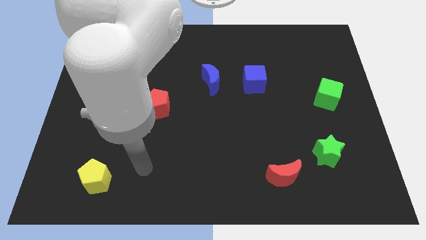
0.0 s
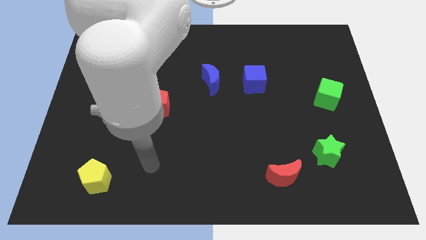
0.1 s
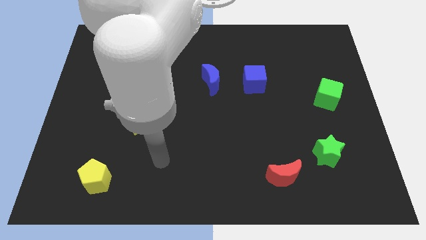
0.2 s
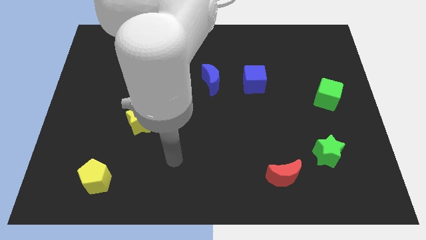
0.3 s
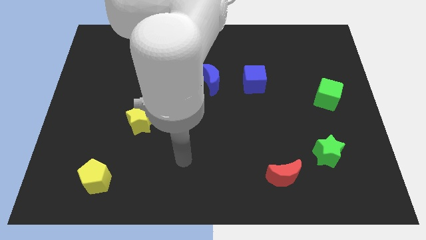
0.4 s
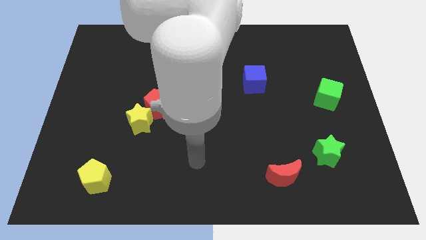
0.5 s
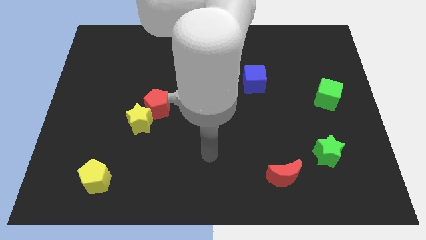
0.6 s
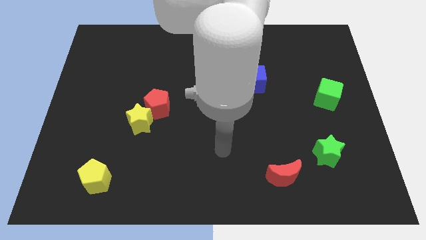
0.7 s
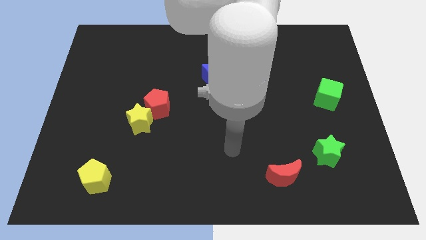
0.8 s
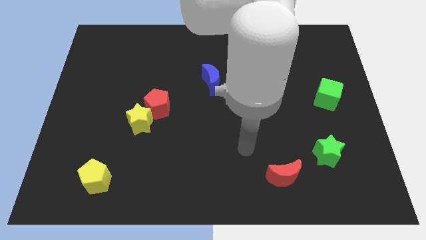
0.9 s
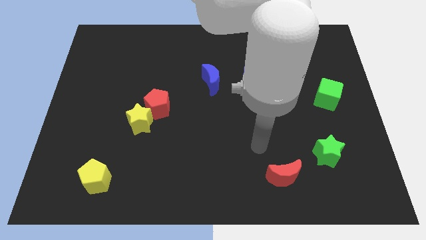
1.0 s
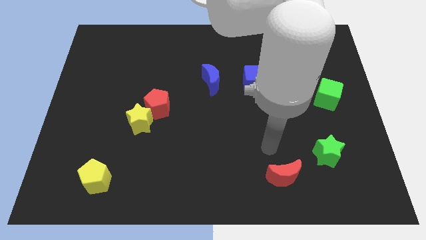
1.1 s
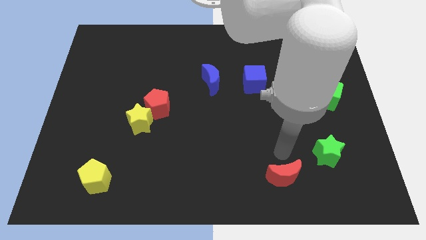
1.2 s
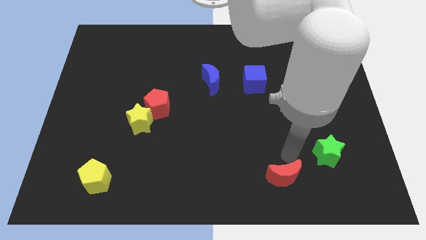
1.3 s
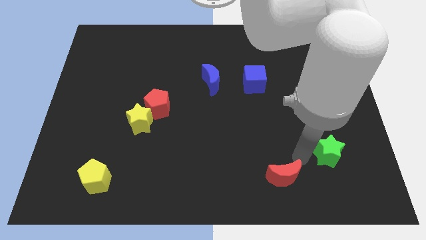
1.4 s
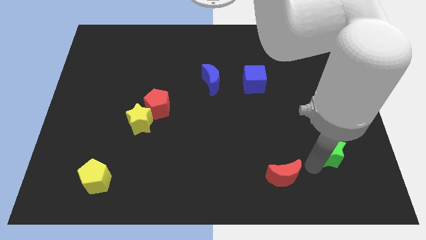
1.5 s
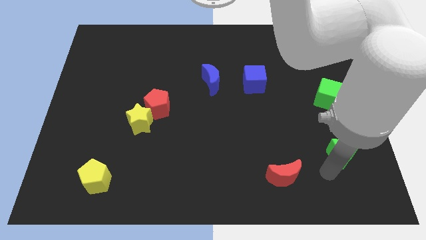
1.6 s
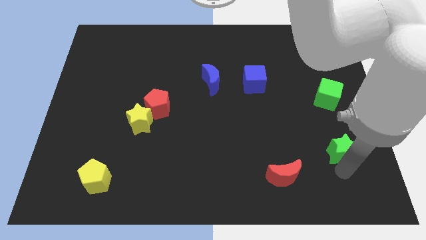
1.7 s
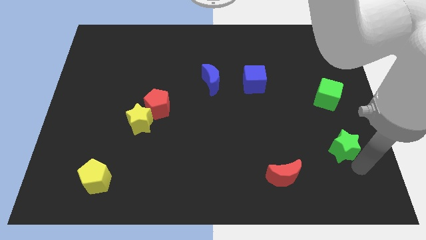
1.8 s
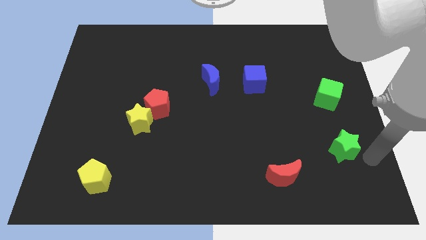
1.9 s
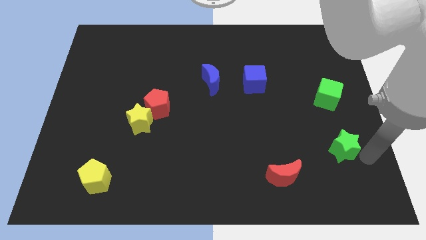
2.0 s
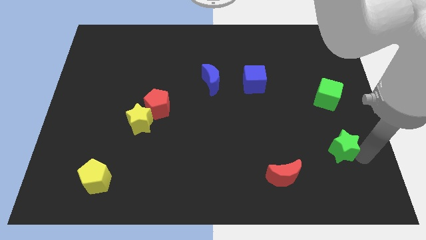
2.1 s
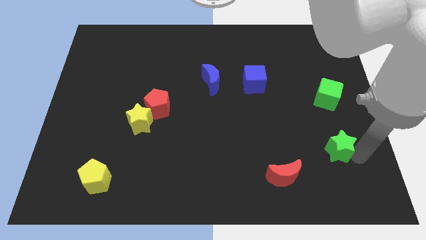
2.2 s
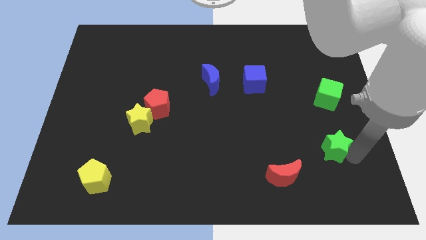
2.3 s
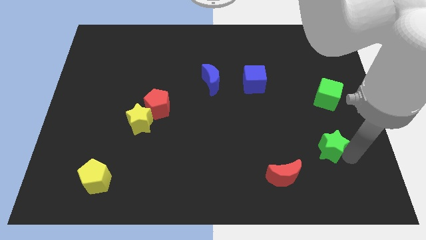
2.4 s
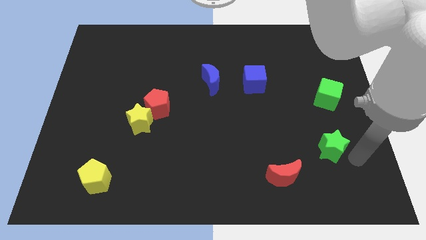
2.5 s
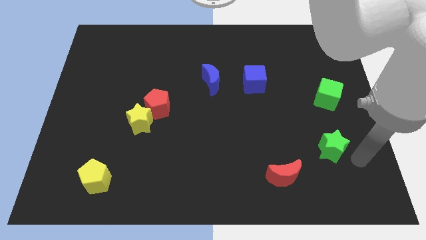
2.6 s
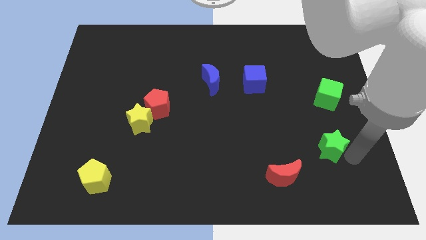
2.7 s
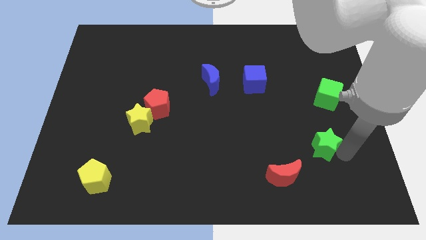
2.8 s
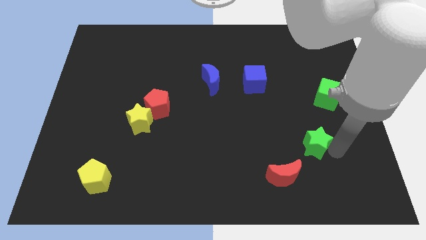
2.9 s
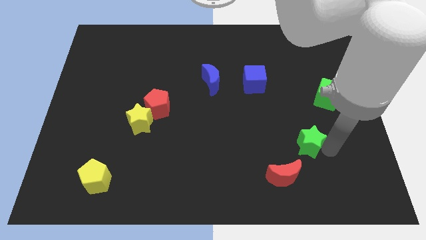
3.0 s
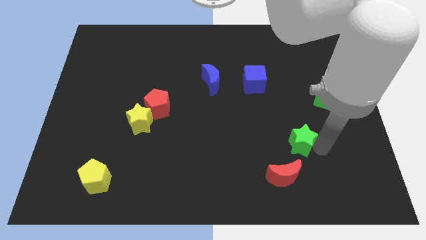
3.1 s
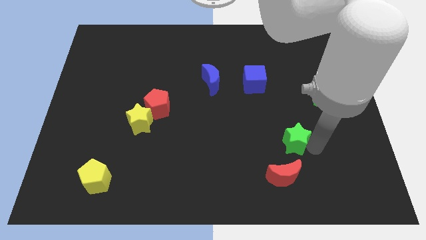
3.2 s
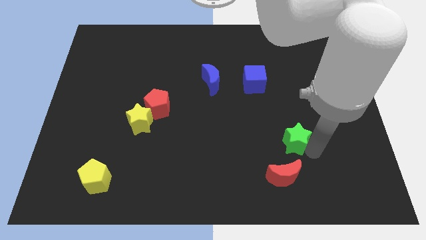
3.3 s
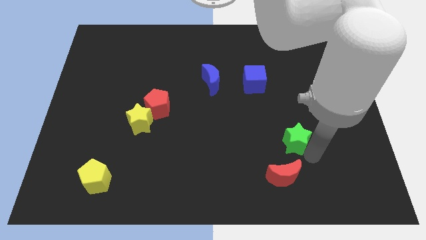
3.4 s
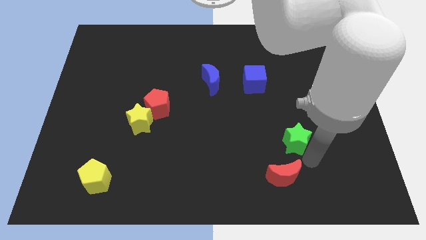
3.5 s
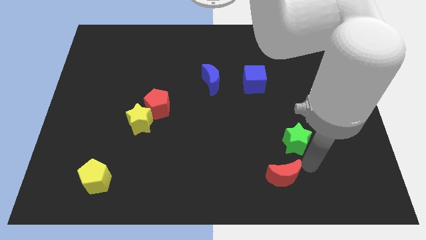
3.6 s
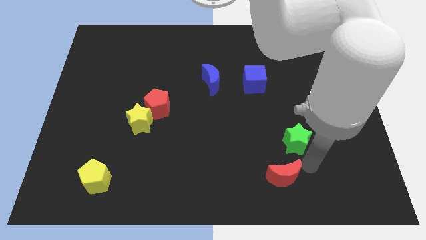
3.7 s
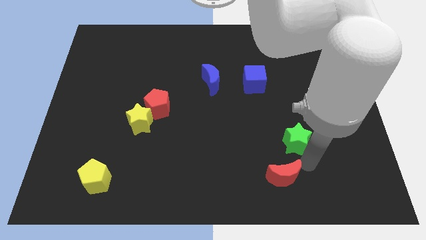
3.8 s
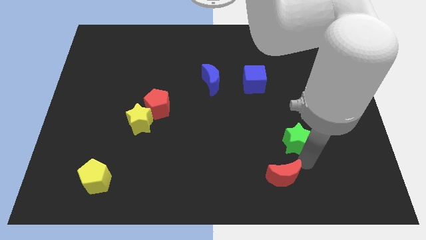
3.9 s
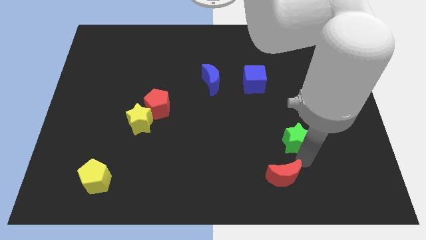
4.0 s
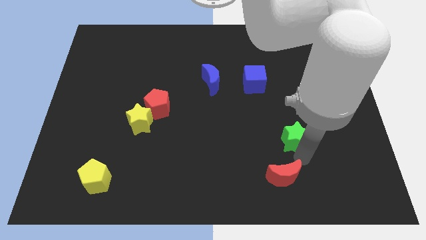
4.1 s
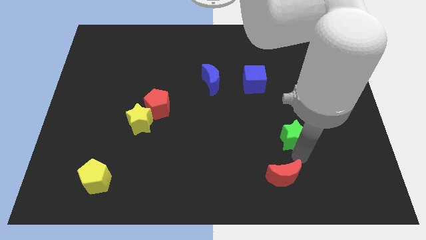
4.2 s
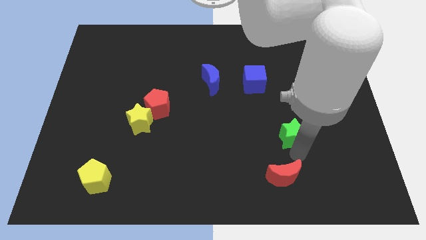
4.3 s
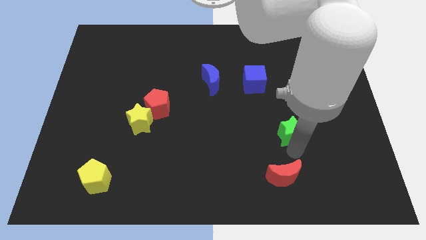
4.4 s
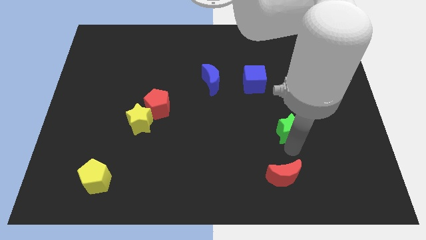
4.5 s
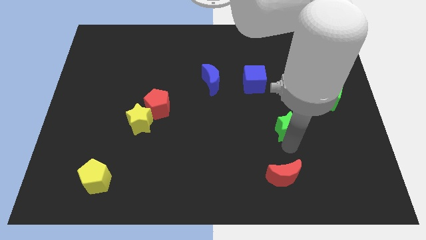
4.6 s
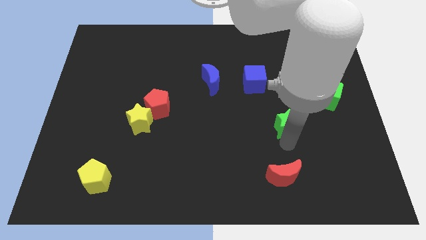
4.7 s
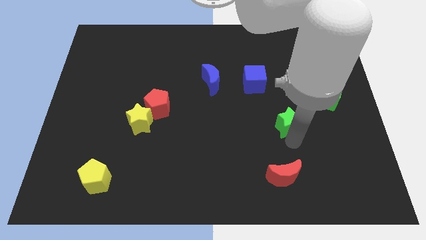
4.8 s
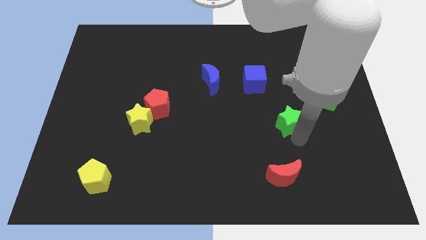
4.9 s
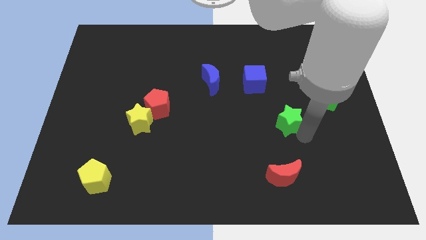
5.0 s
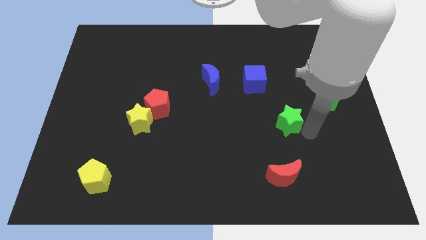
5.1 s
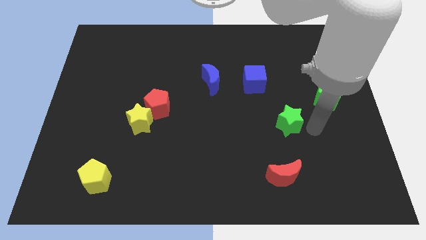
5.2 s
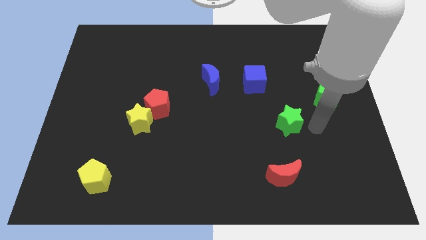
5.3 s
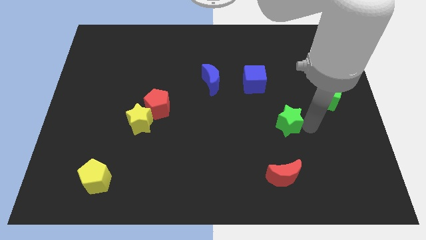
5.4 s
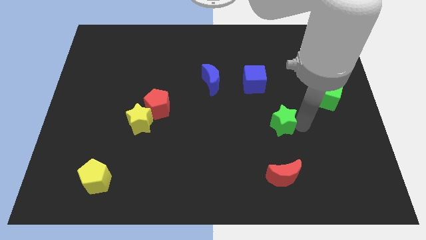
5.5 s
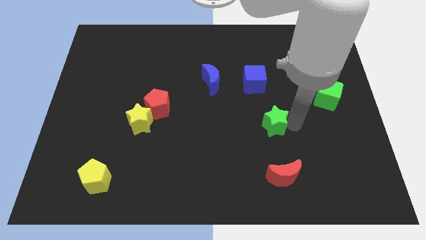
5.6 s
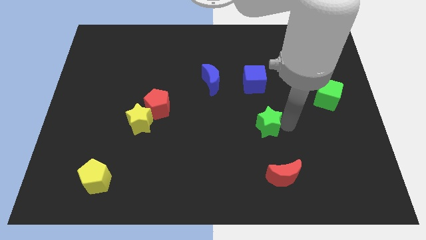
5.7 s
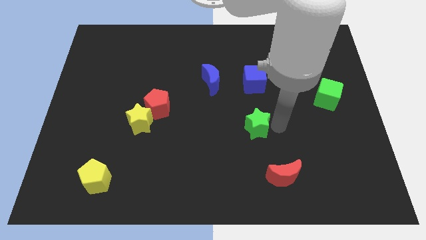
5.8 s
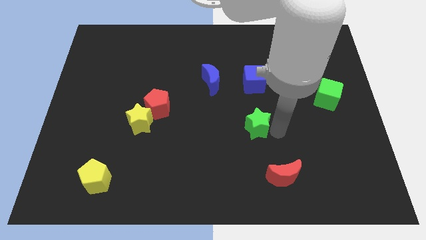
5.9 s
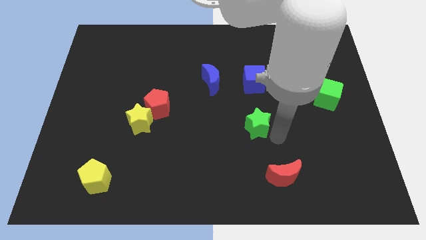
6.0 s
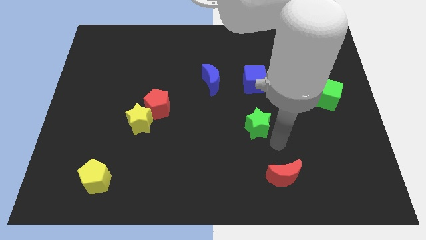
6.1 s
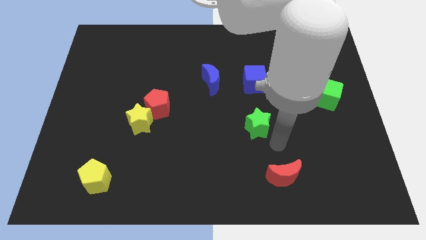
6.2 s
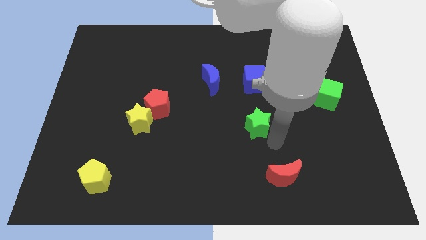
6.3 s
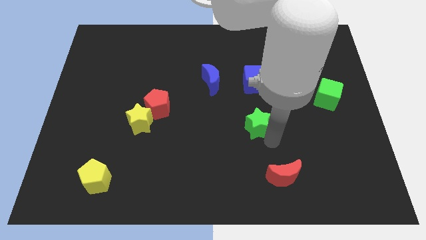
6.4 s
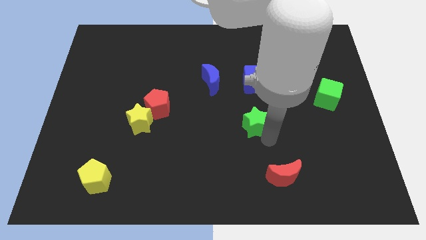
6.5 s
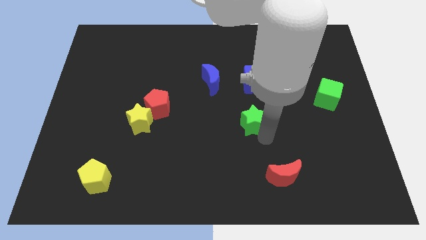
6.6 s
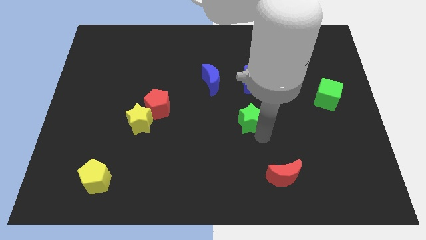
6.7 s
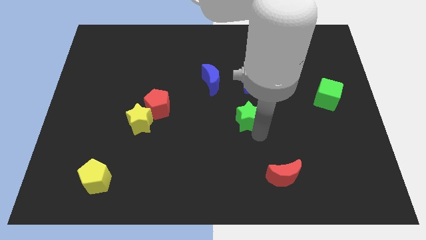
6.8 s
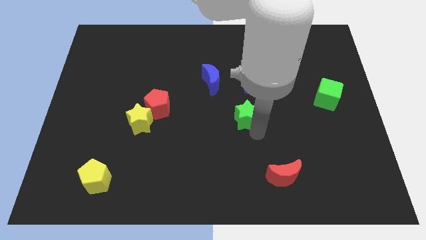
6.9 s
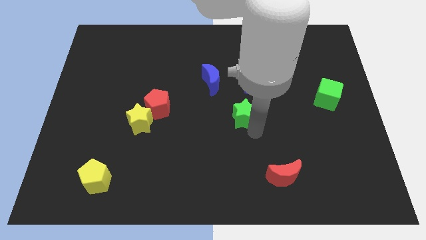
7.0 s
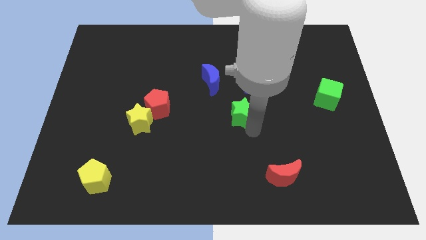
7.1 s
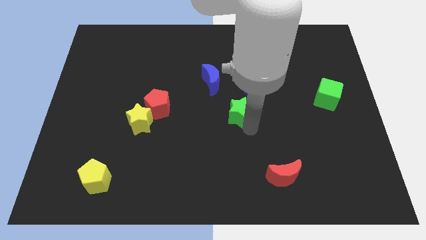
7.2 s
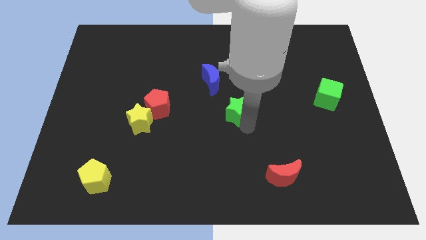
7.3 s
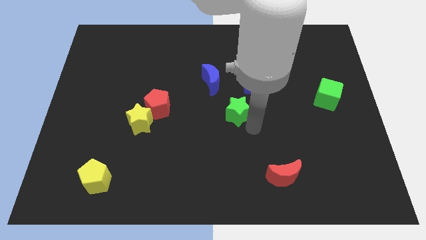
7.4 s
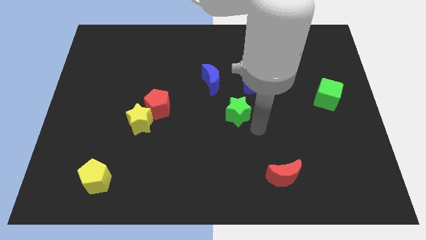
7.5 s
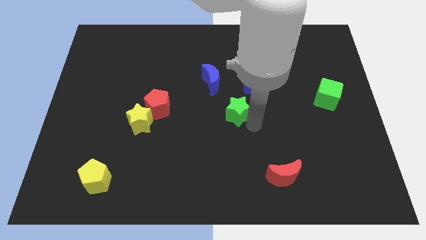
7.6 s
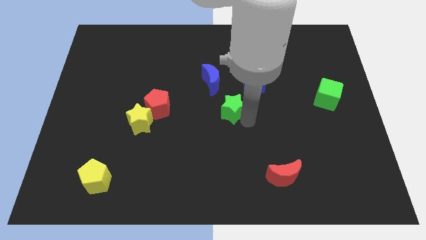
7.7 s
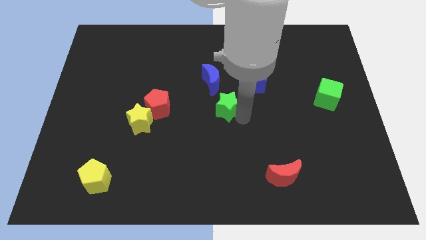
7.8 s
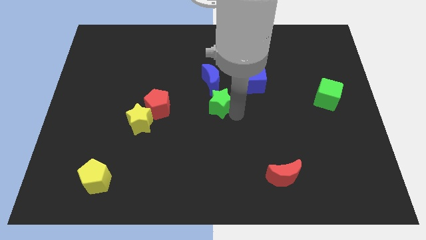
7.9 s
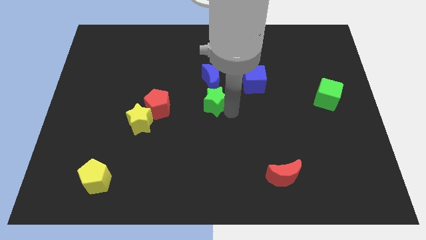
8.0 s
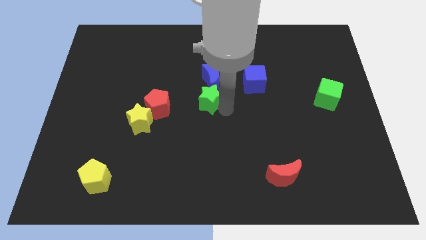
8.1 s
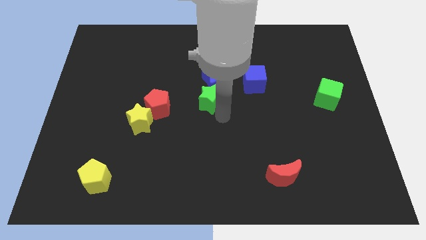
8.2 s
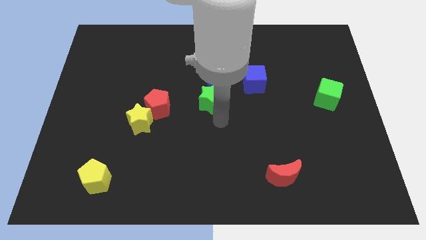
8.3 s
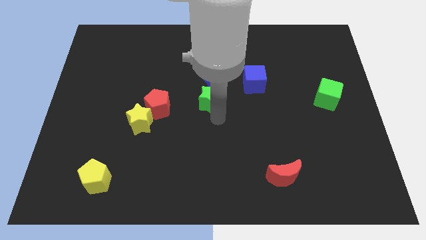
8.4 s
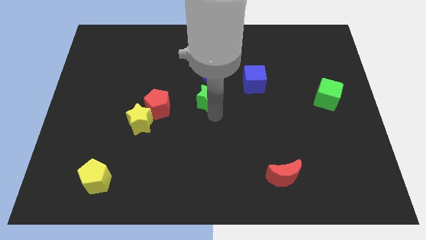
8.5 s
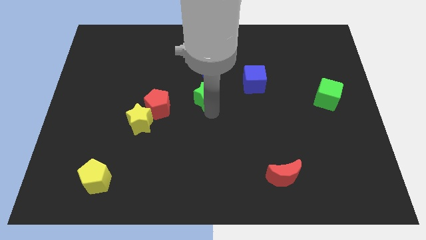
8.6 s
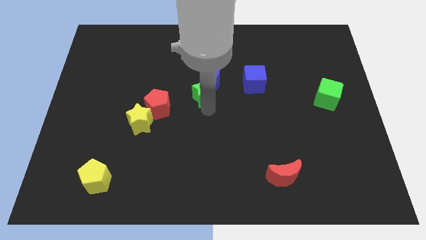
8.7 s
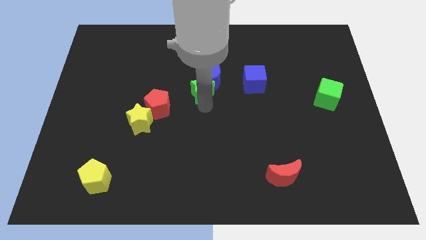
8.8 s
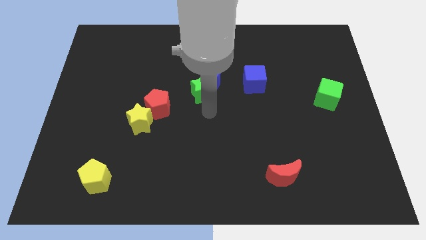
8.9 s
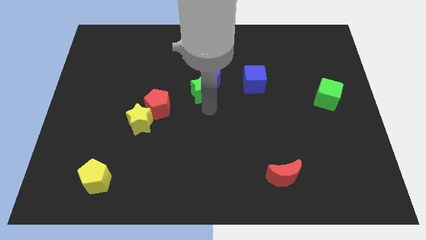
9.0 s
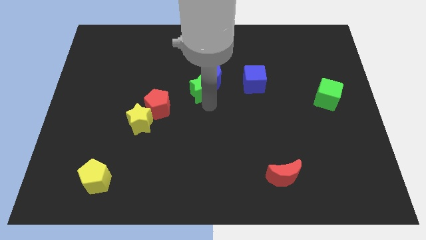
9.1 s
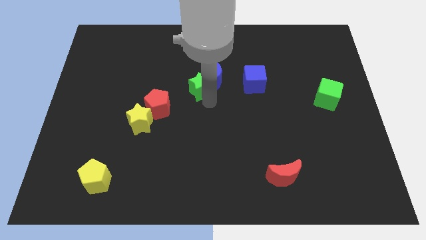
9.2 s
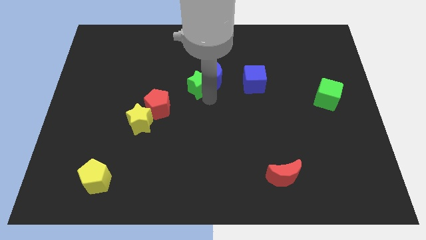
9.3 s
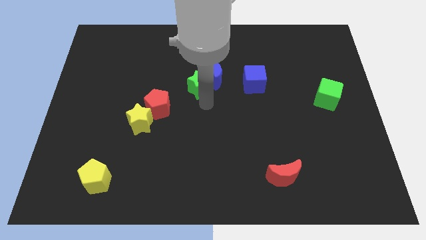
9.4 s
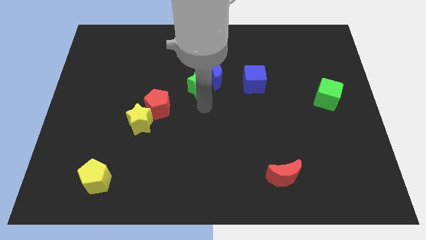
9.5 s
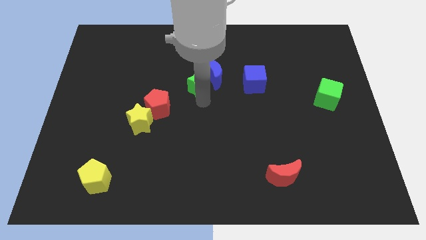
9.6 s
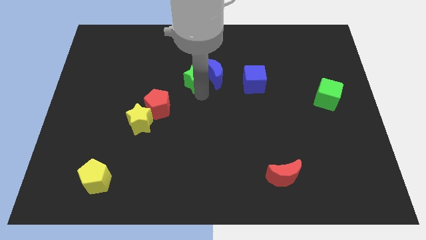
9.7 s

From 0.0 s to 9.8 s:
move the green star diagonally up and to the left of the blue moon
